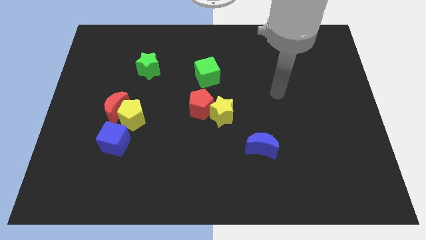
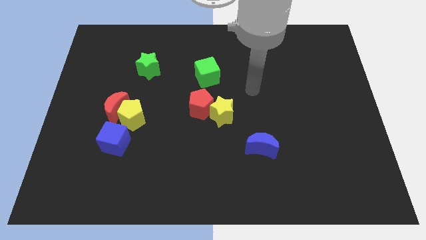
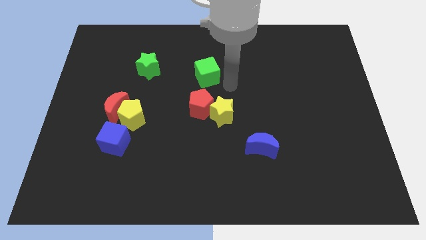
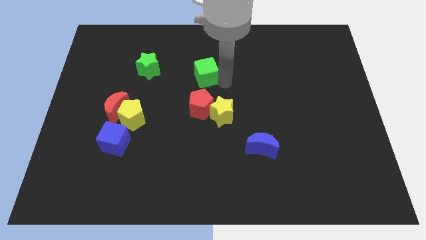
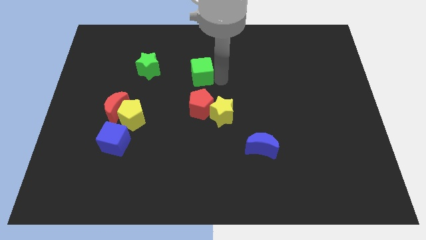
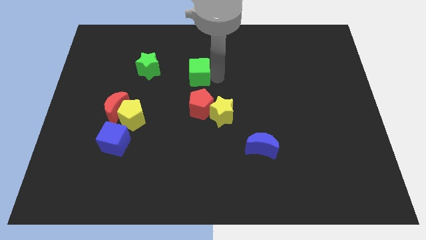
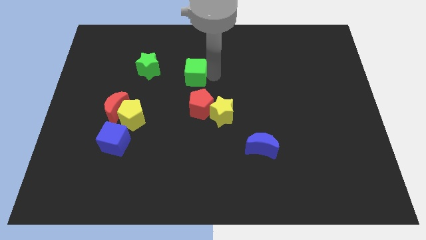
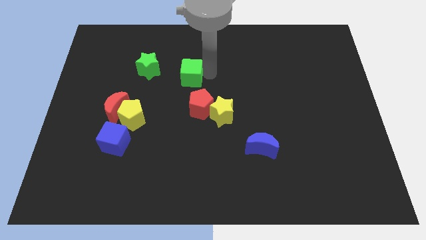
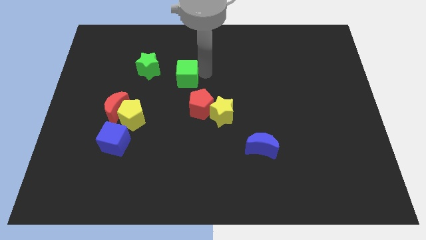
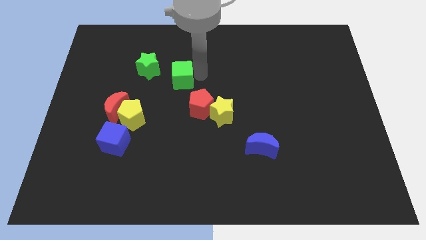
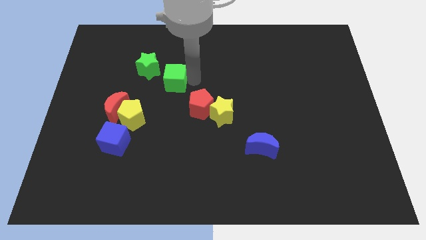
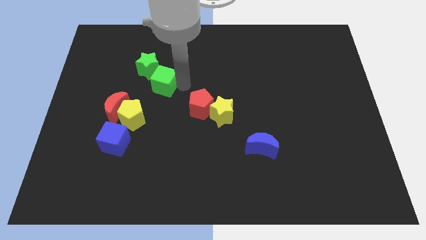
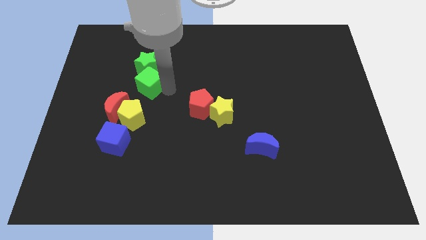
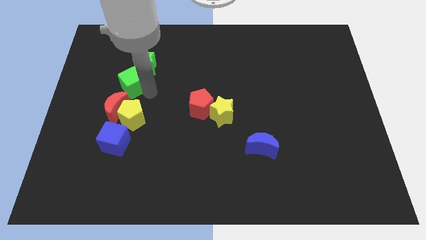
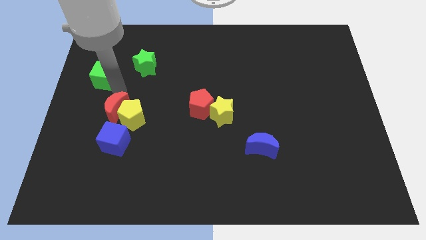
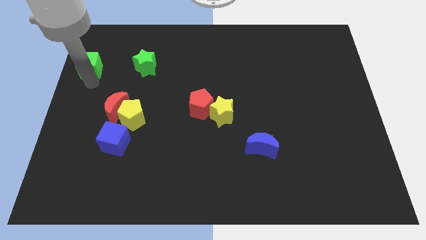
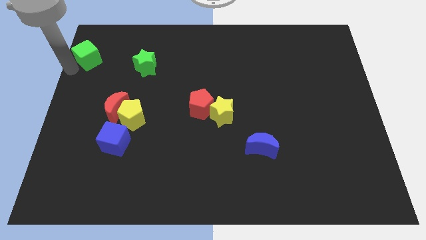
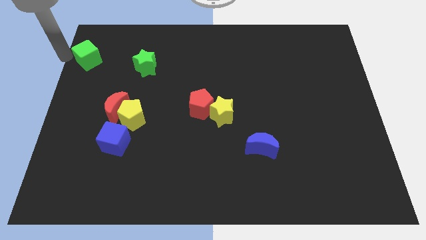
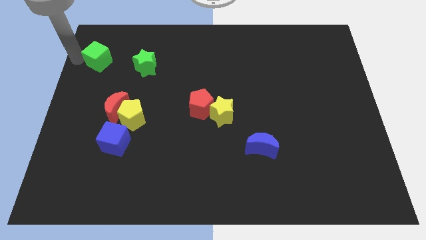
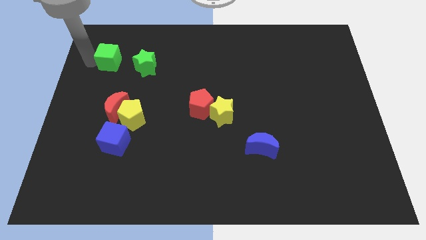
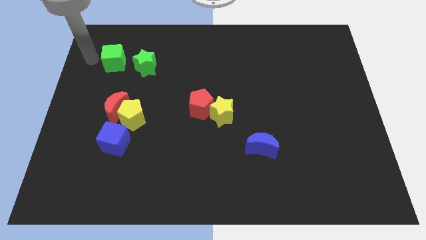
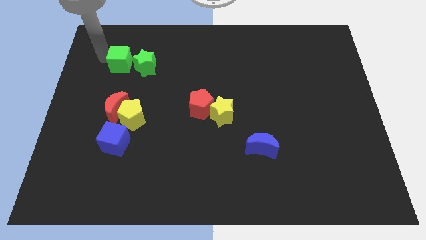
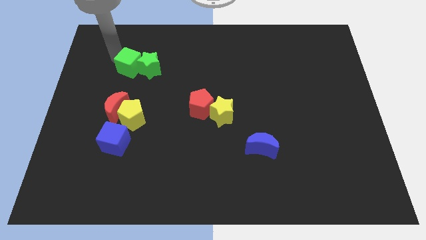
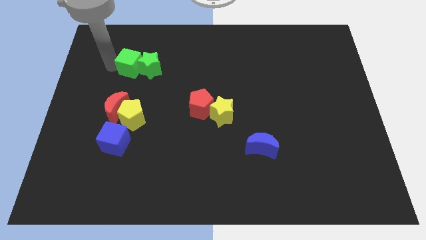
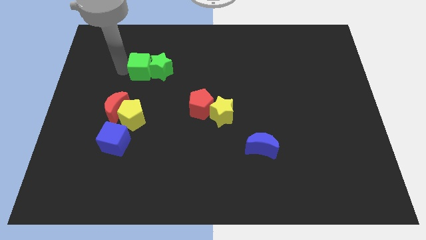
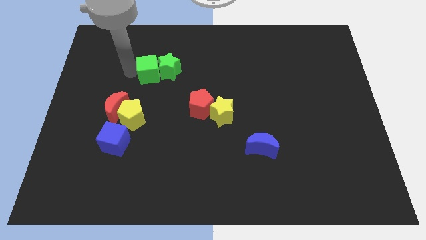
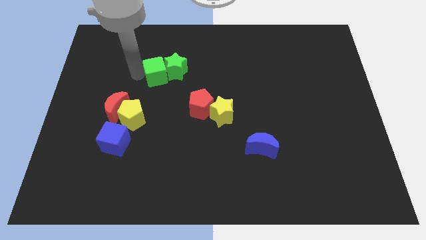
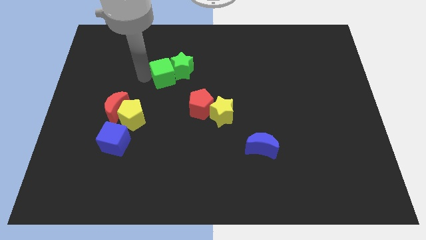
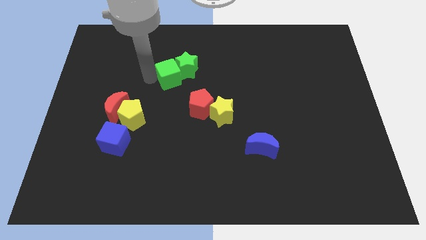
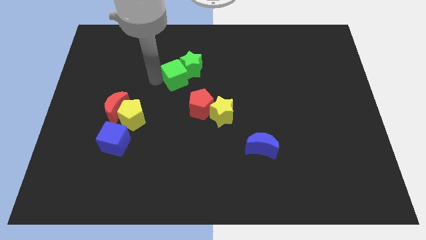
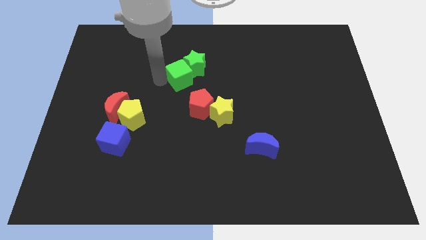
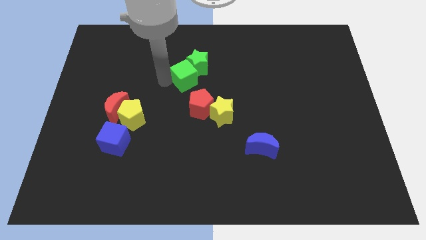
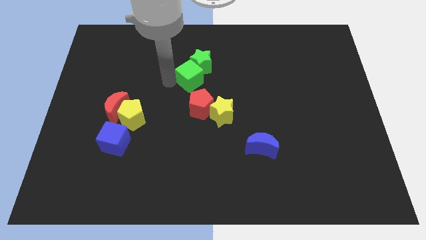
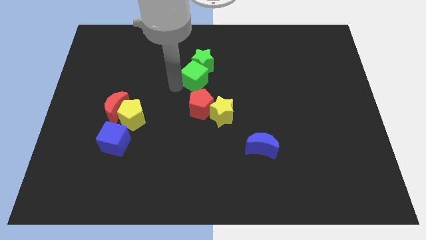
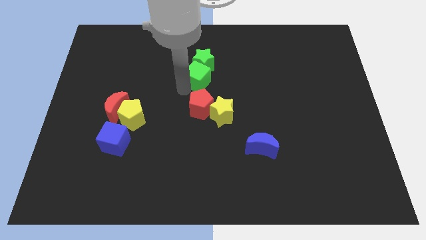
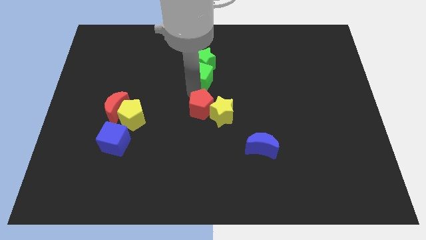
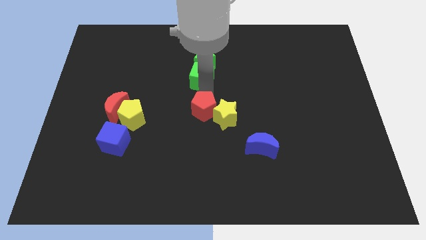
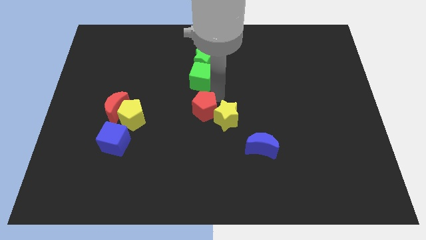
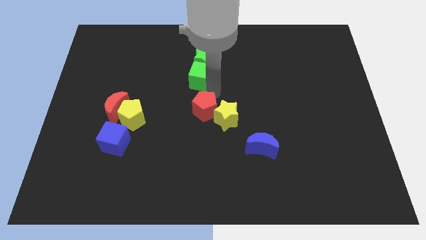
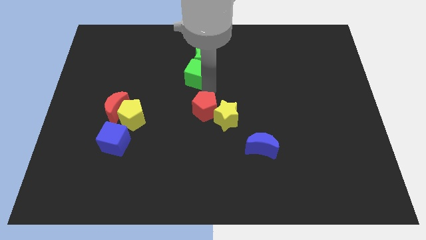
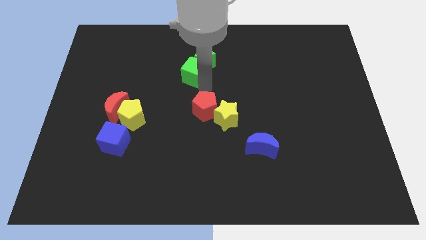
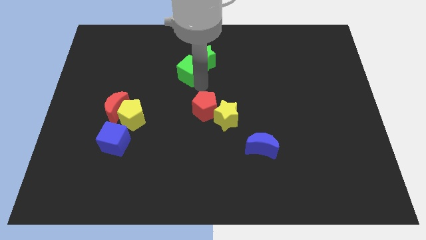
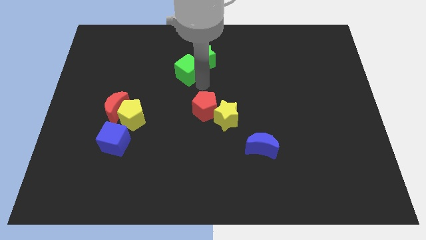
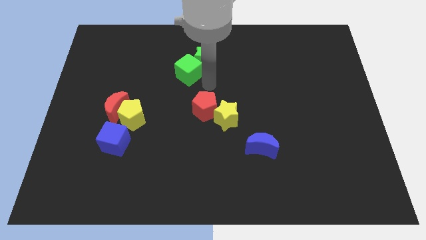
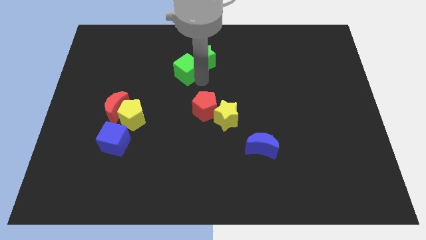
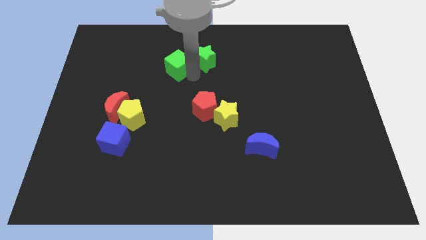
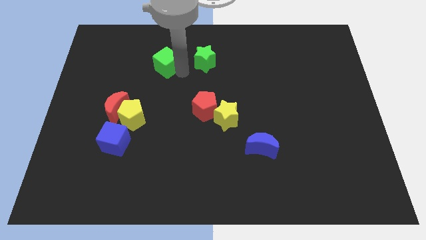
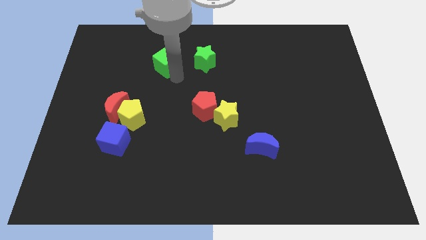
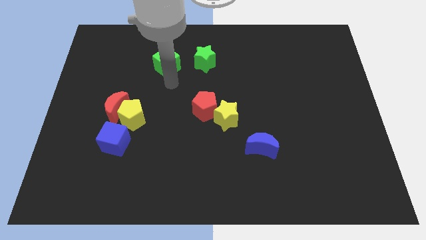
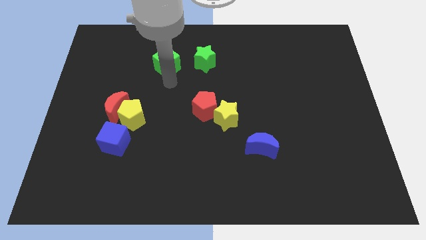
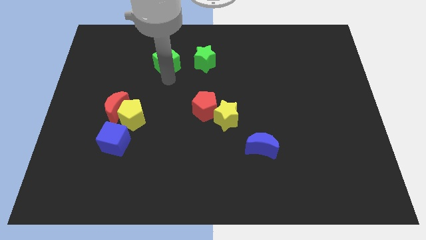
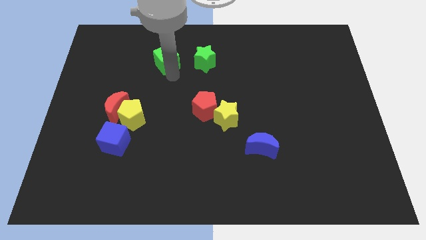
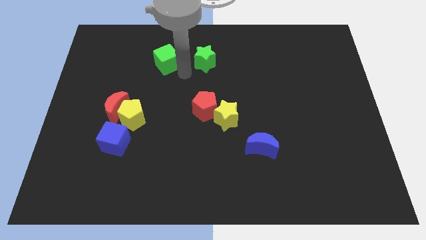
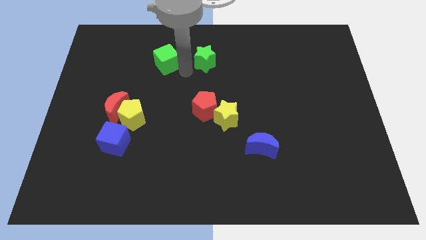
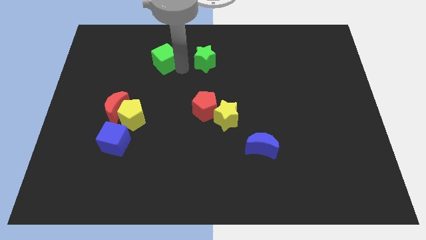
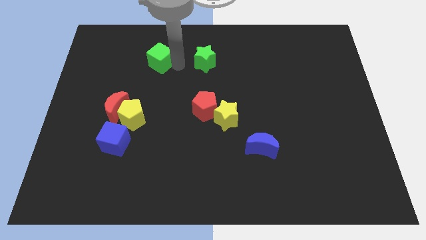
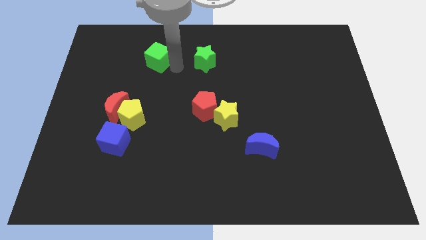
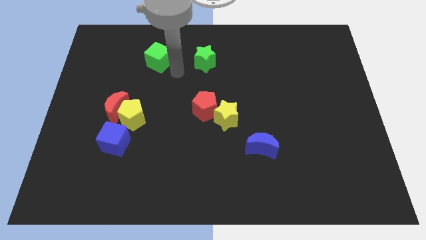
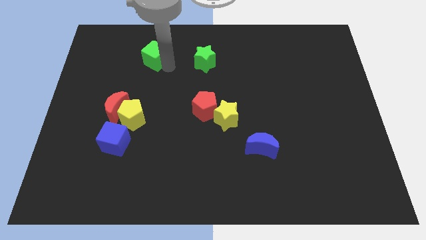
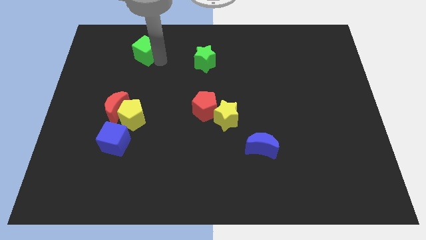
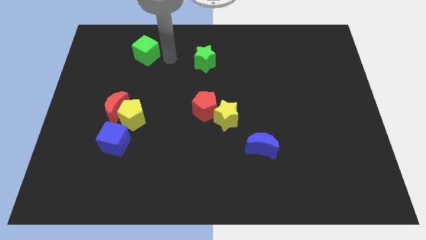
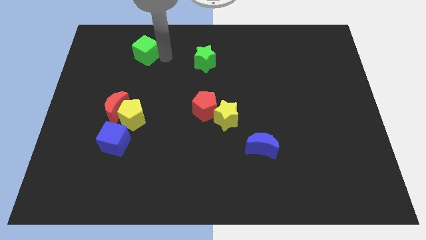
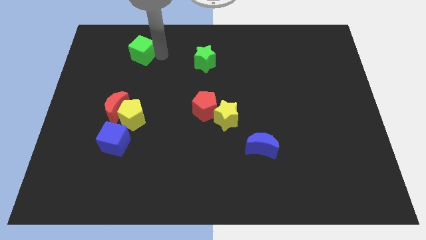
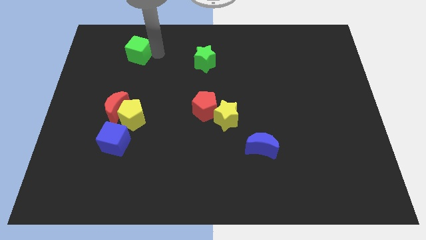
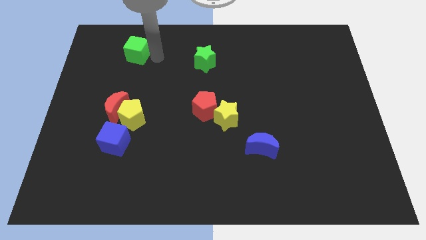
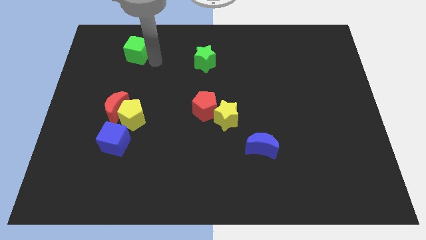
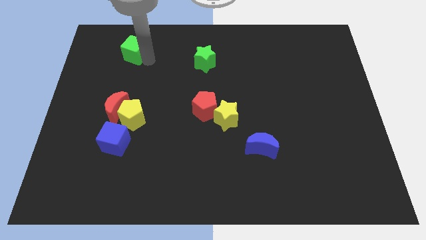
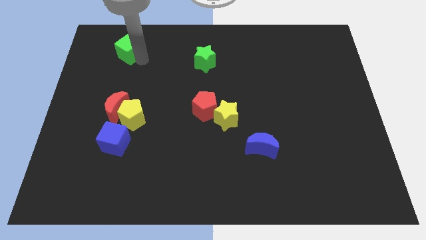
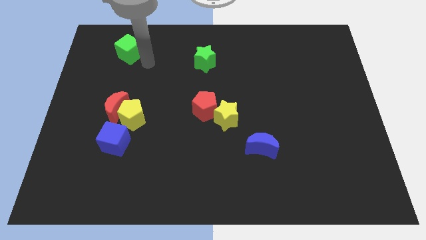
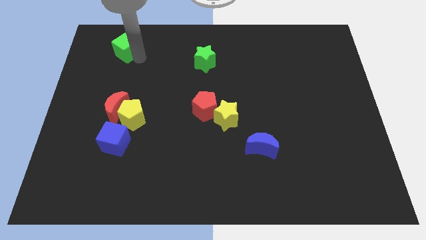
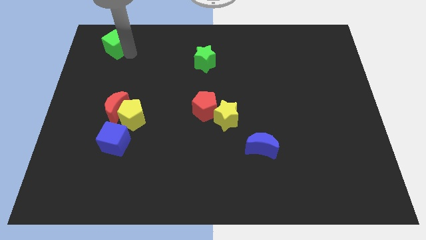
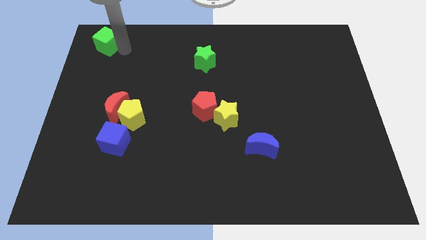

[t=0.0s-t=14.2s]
push the green cube to the upper left corner

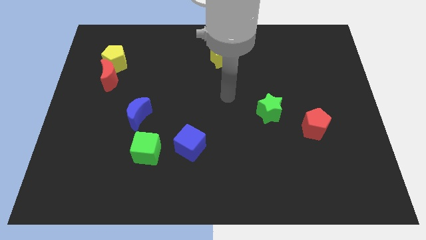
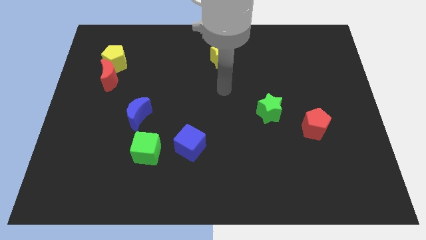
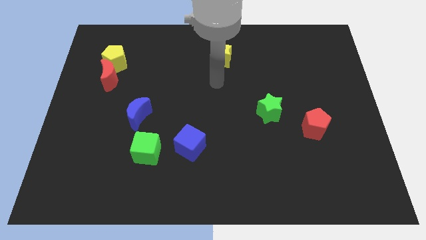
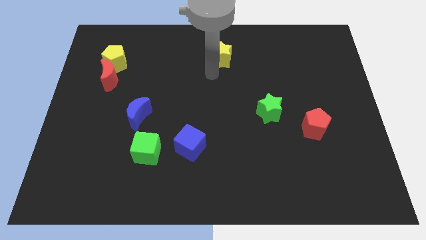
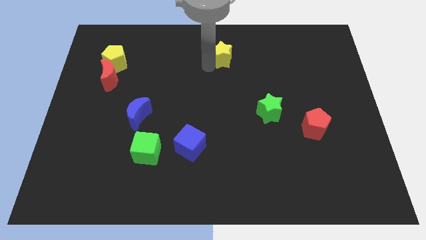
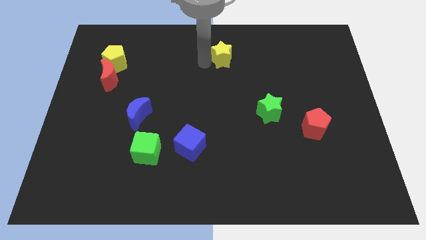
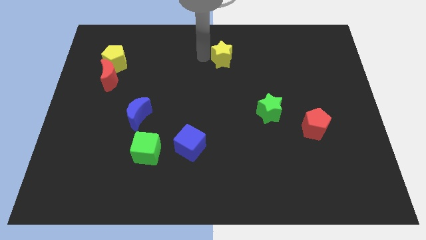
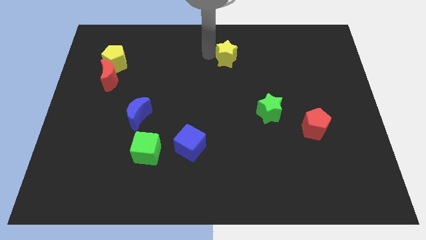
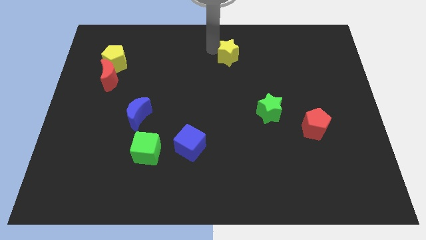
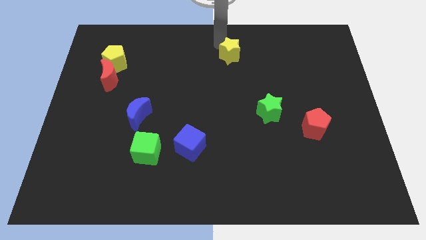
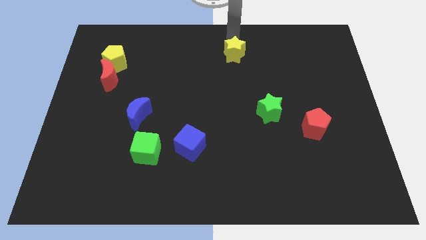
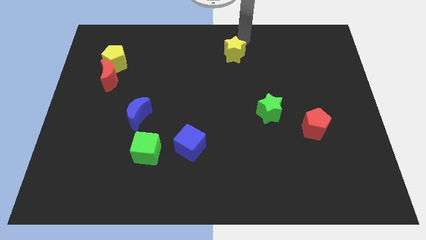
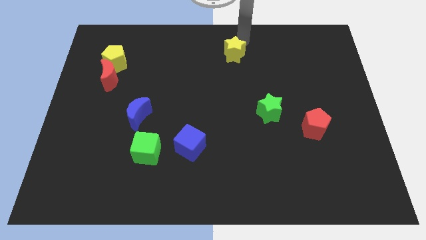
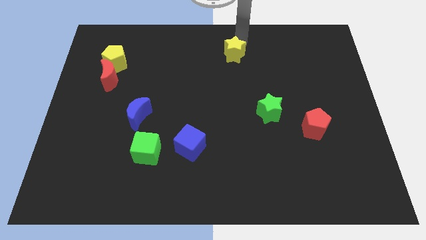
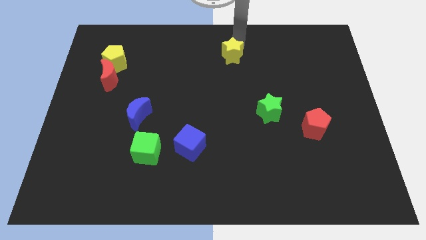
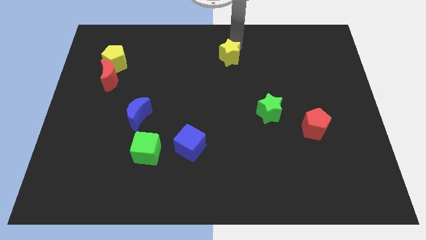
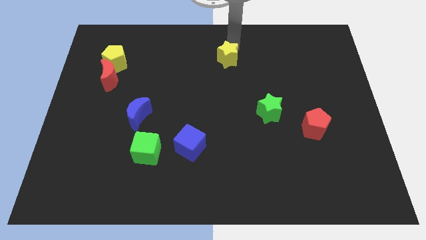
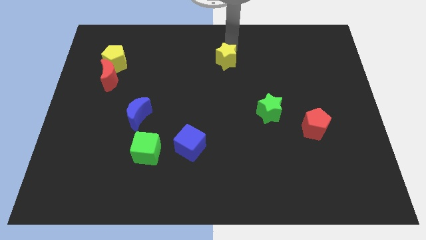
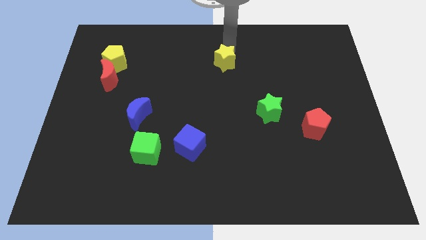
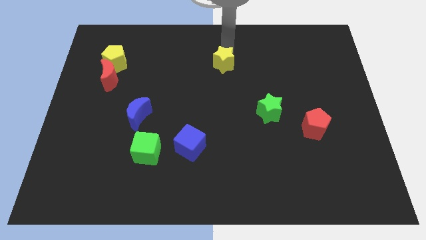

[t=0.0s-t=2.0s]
push the yellow star to the center
